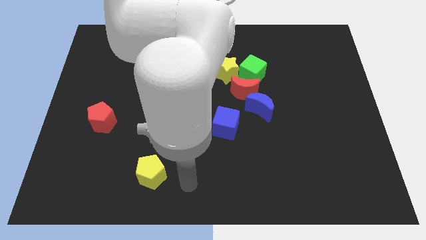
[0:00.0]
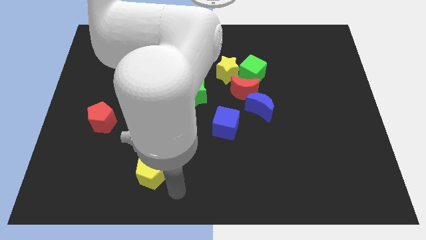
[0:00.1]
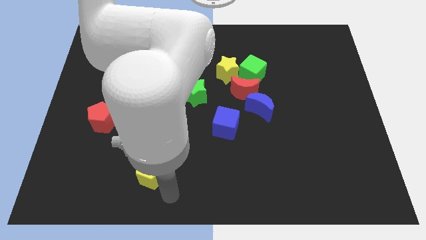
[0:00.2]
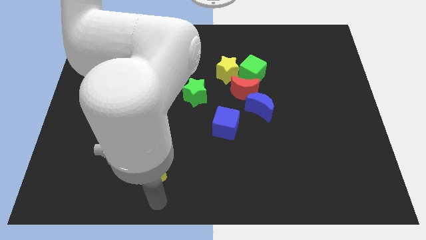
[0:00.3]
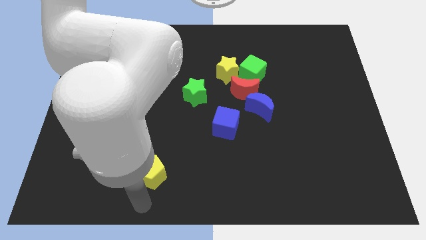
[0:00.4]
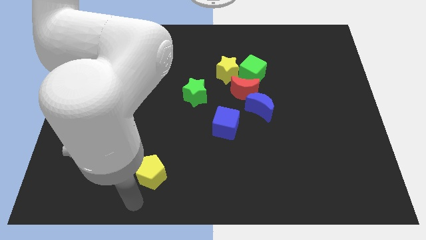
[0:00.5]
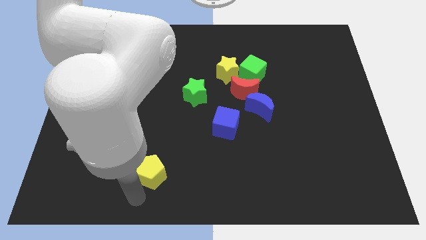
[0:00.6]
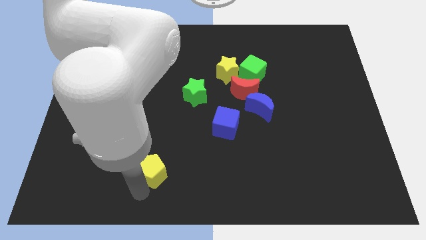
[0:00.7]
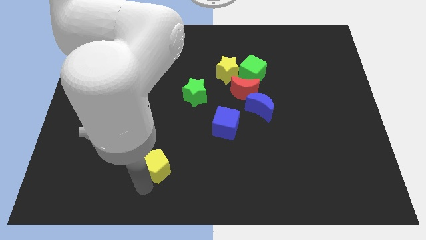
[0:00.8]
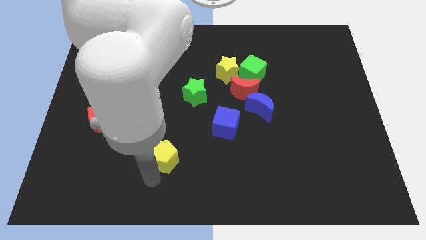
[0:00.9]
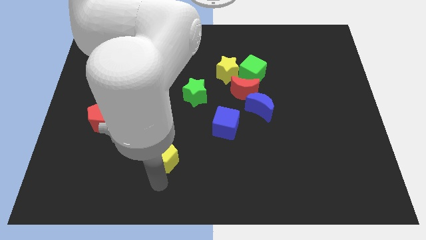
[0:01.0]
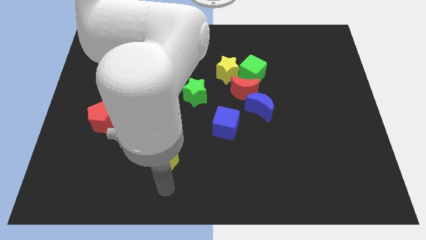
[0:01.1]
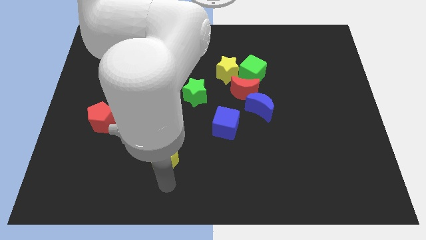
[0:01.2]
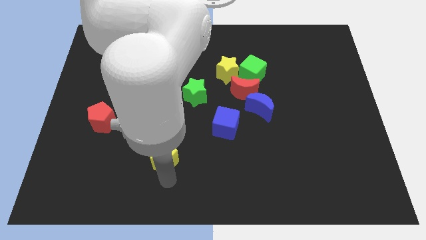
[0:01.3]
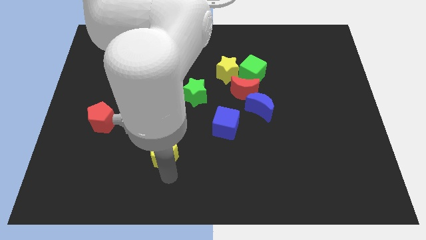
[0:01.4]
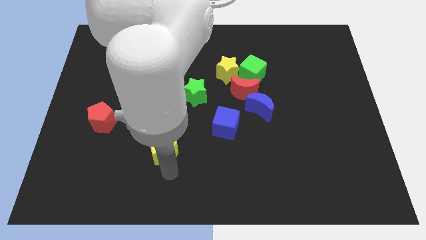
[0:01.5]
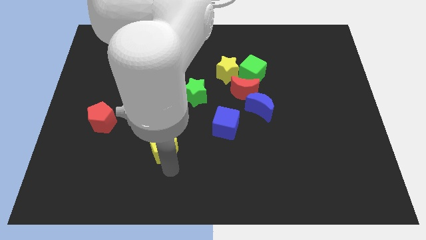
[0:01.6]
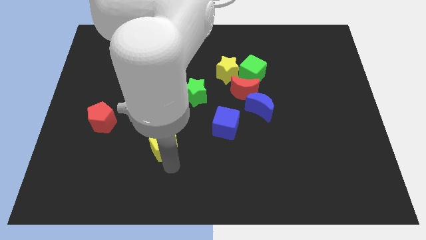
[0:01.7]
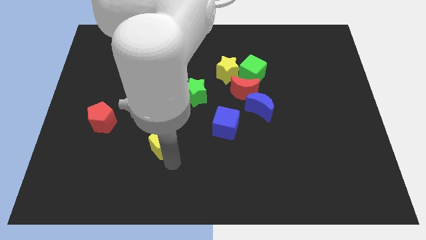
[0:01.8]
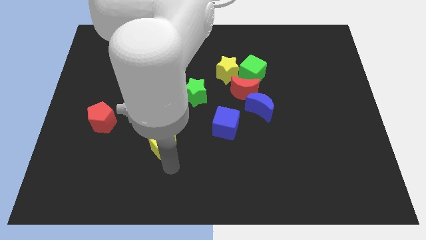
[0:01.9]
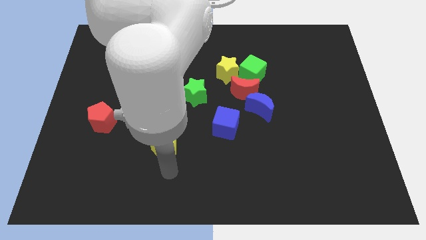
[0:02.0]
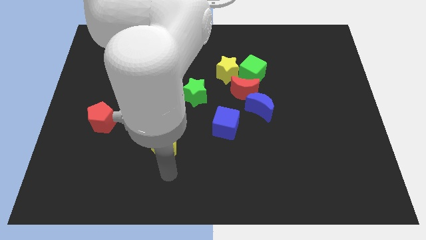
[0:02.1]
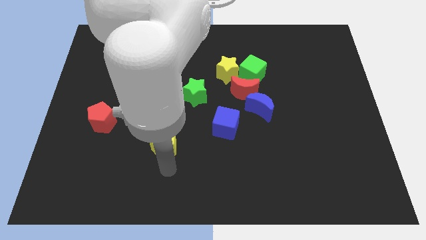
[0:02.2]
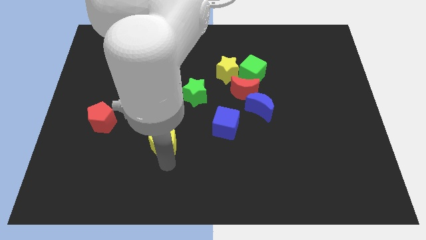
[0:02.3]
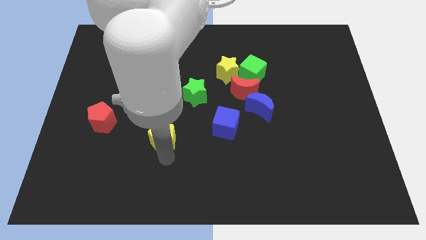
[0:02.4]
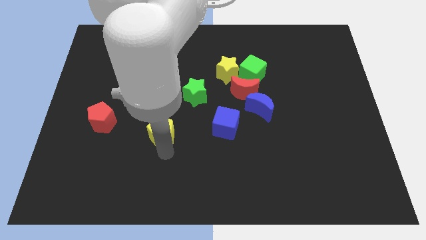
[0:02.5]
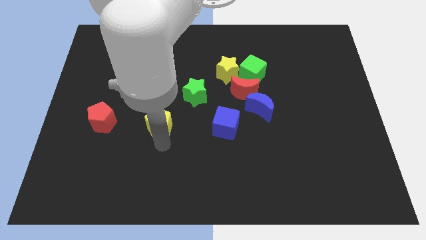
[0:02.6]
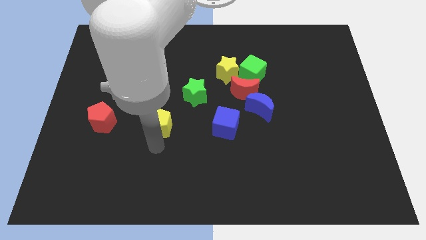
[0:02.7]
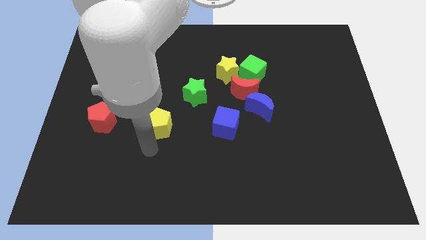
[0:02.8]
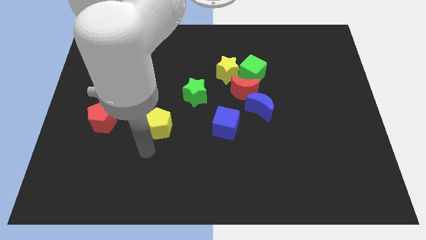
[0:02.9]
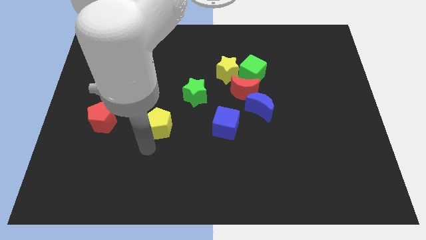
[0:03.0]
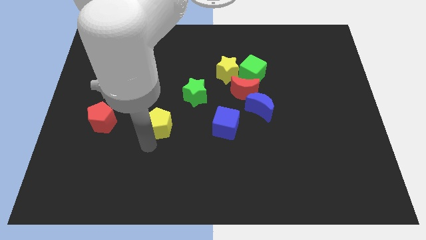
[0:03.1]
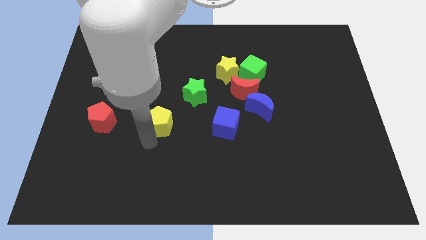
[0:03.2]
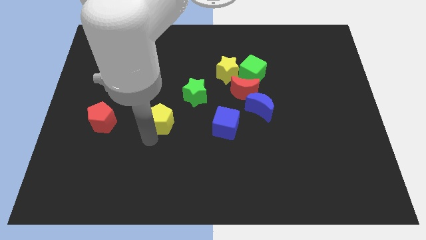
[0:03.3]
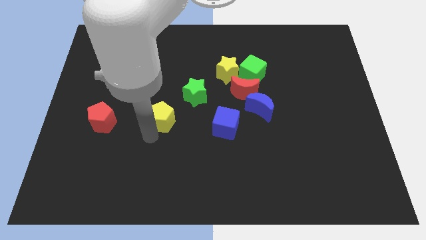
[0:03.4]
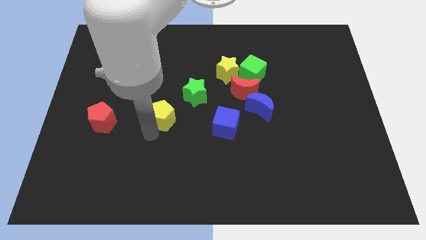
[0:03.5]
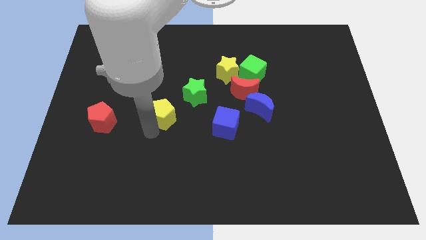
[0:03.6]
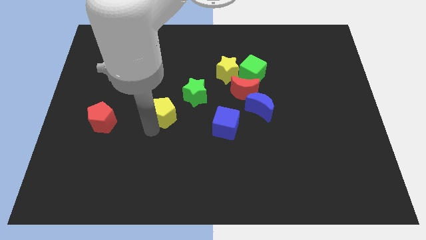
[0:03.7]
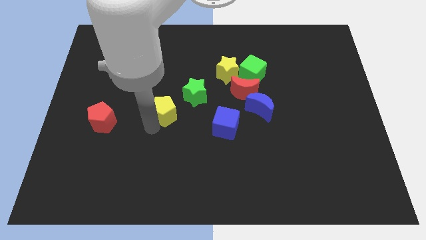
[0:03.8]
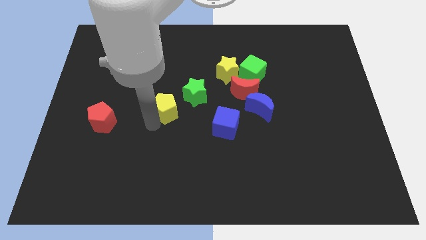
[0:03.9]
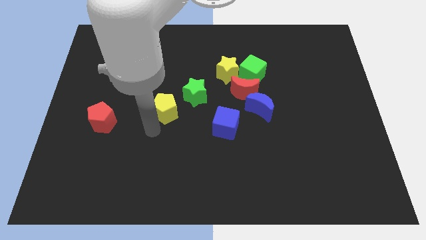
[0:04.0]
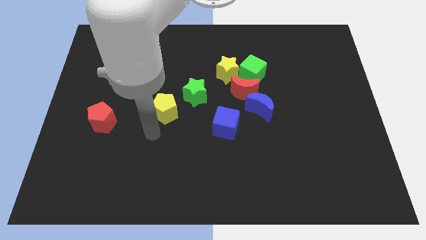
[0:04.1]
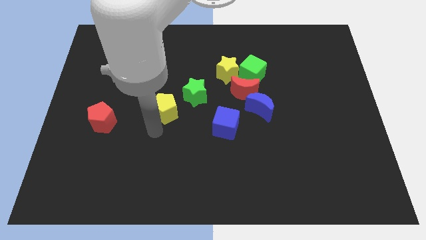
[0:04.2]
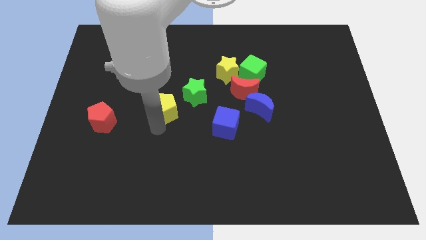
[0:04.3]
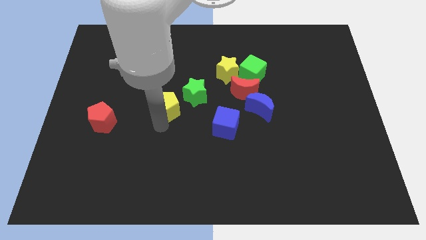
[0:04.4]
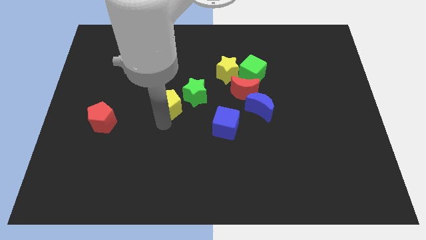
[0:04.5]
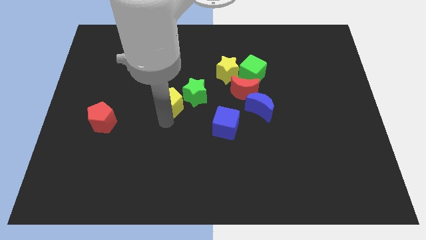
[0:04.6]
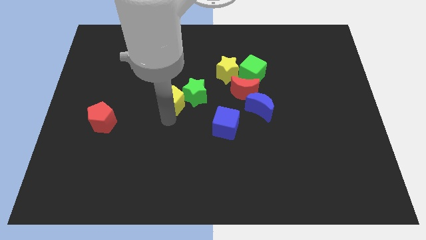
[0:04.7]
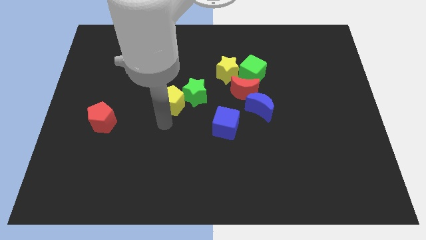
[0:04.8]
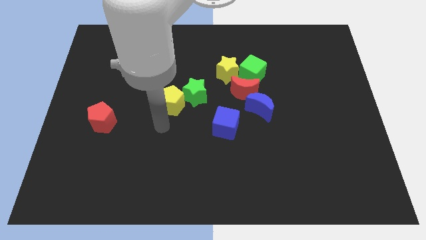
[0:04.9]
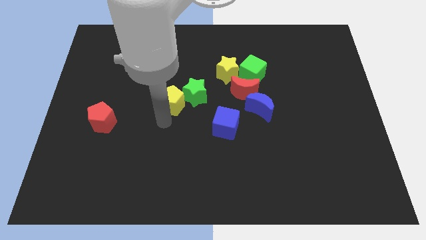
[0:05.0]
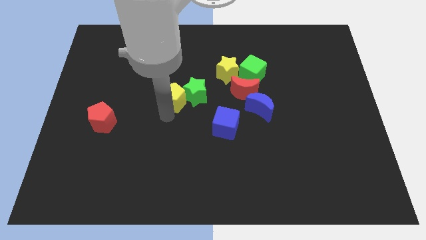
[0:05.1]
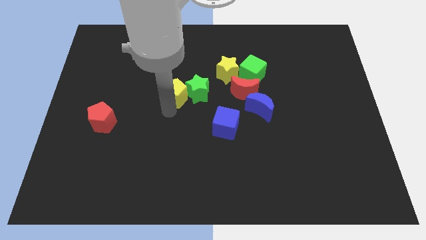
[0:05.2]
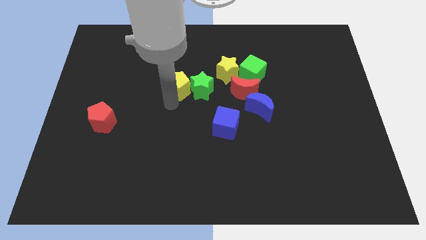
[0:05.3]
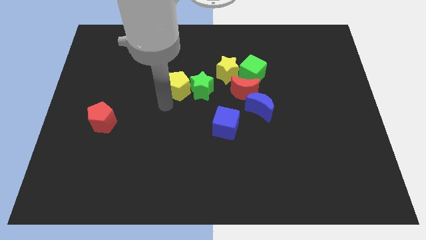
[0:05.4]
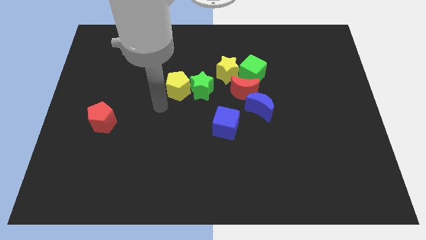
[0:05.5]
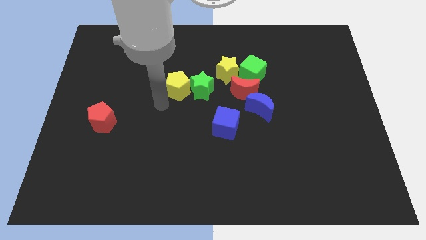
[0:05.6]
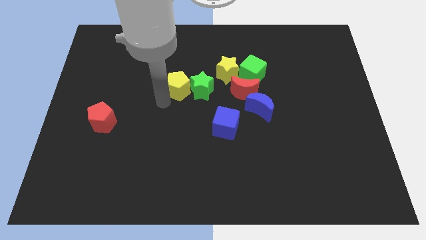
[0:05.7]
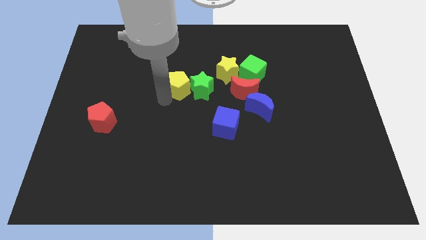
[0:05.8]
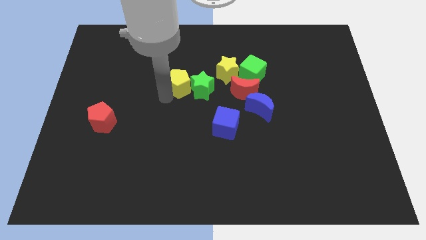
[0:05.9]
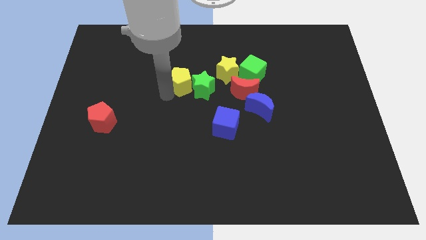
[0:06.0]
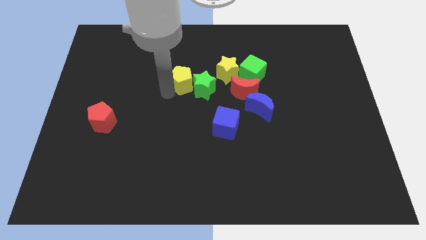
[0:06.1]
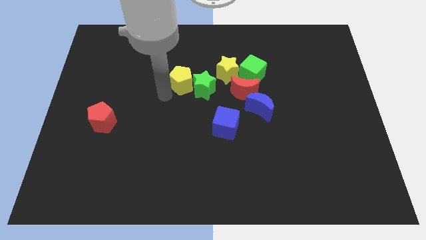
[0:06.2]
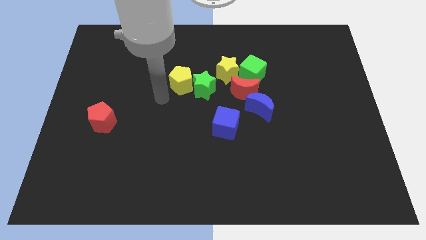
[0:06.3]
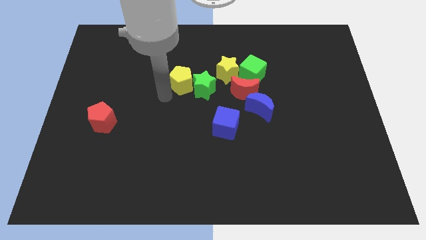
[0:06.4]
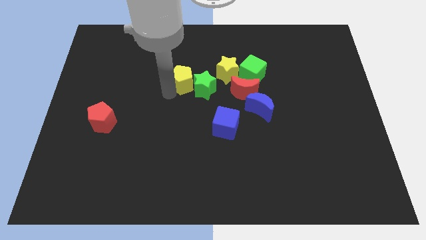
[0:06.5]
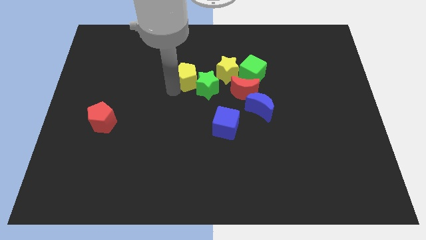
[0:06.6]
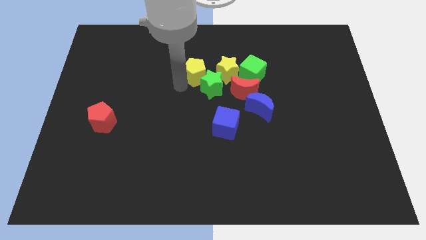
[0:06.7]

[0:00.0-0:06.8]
push the yellow pentagon to the top of the green star
